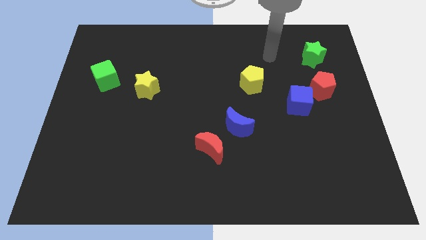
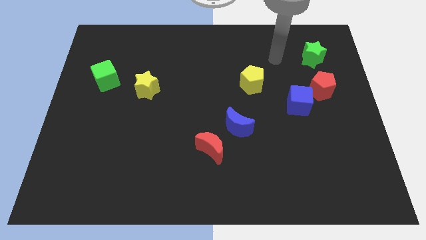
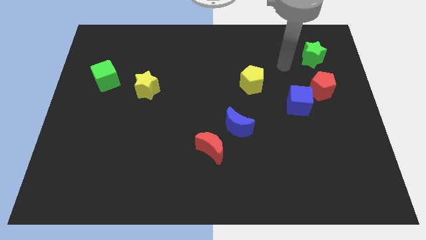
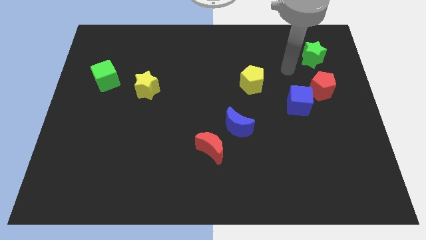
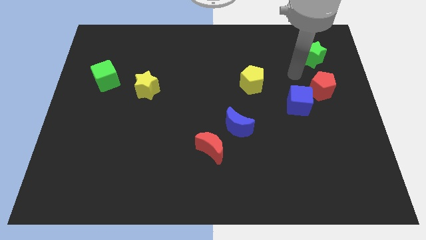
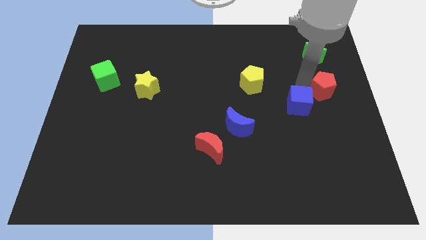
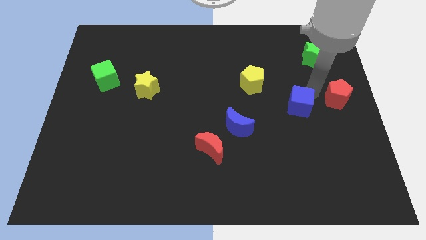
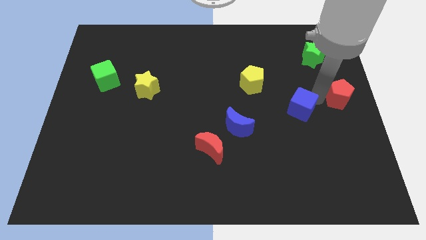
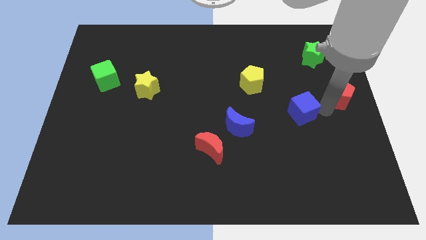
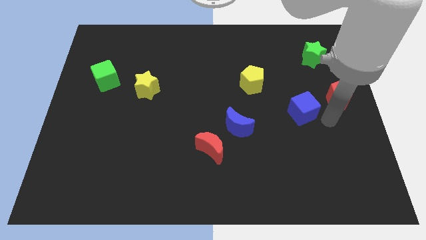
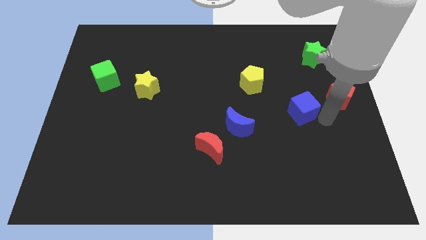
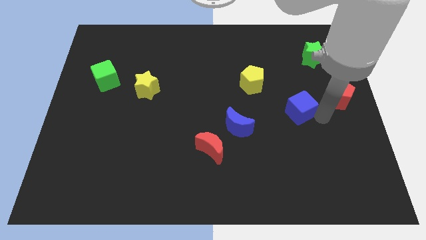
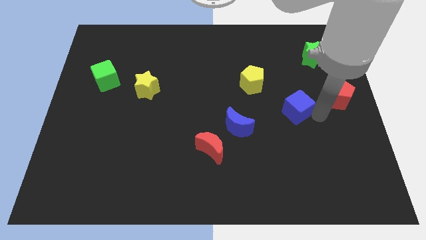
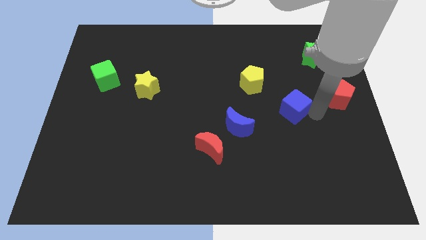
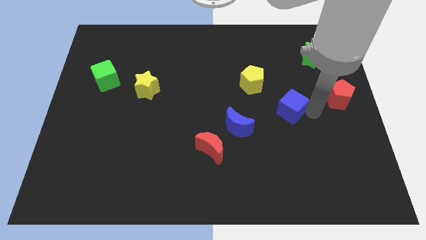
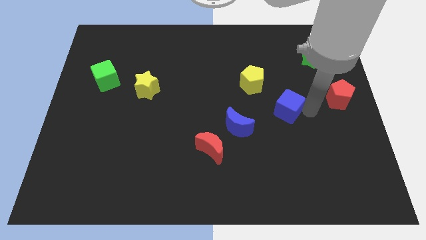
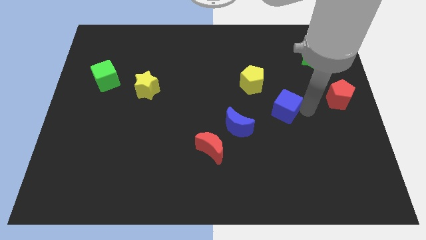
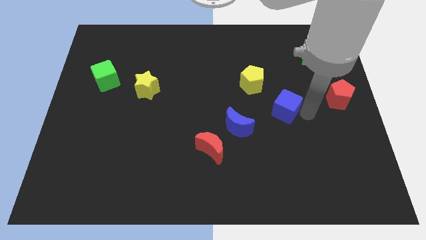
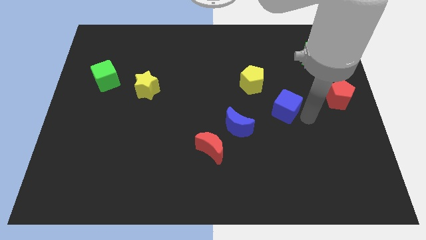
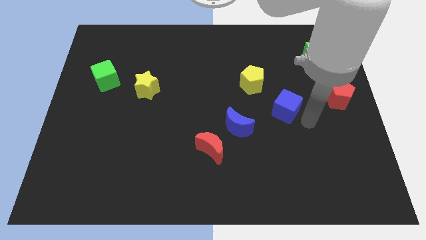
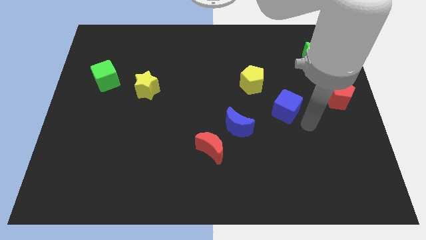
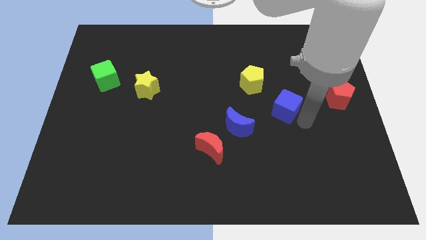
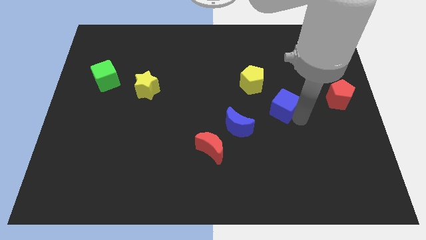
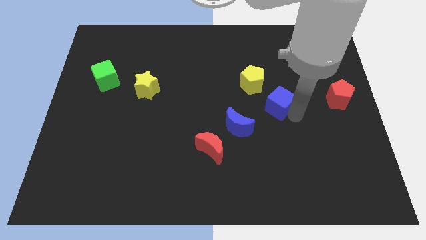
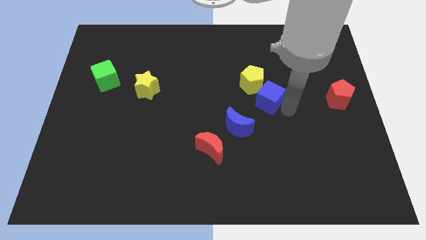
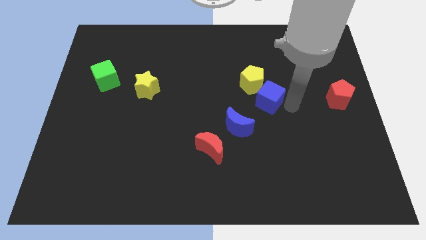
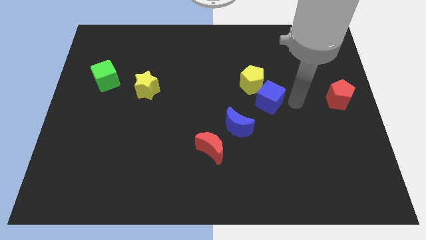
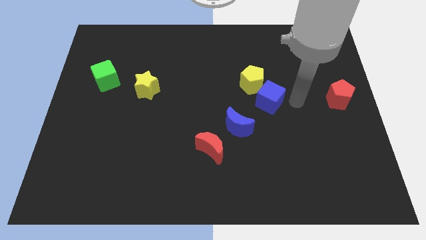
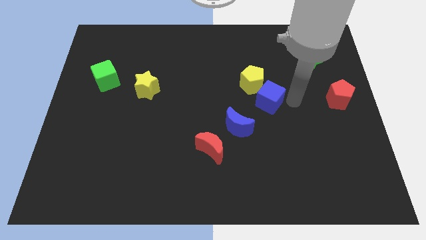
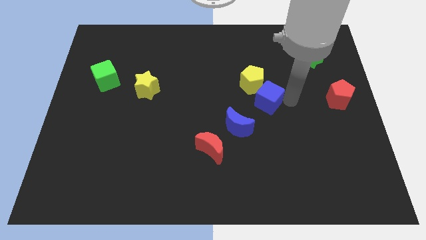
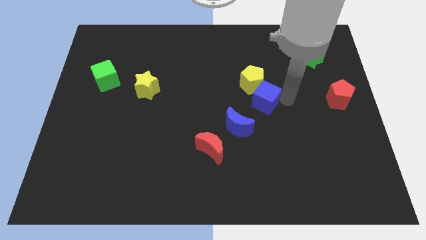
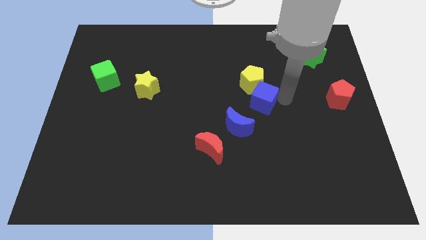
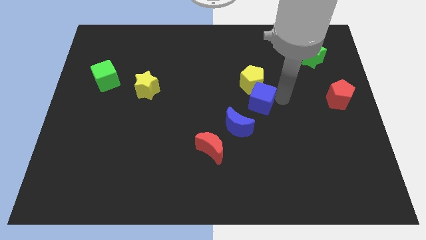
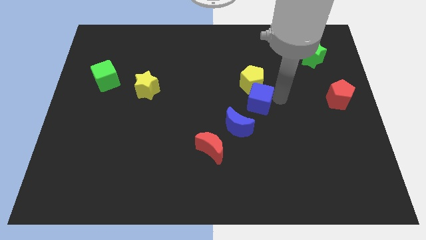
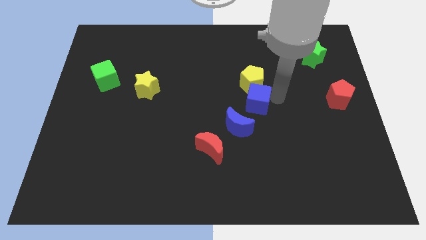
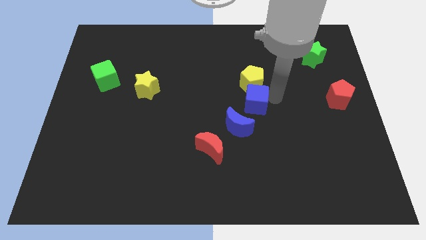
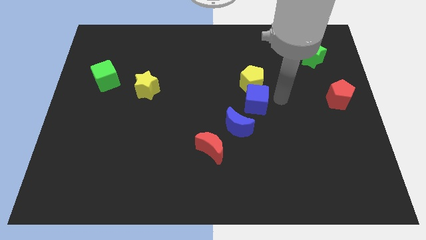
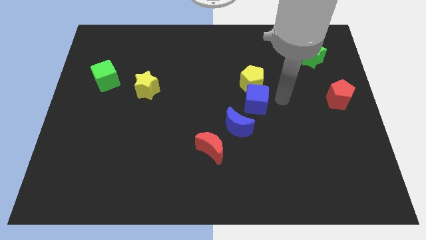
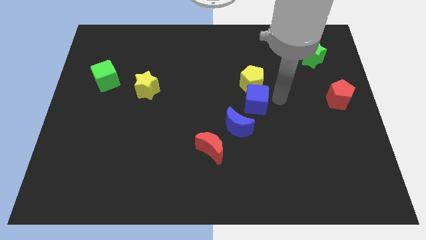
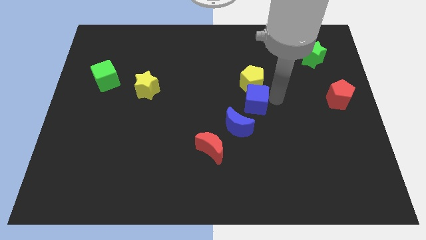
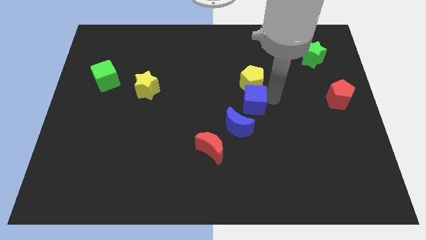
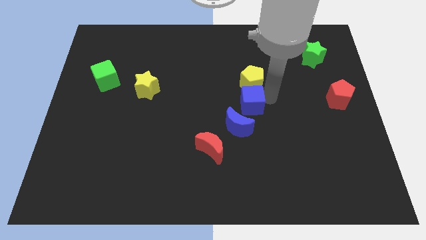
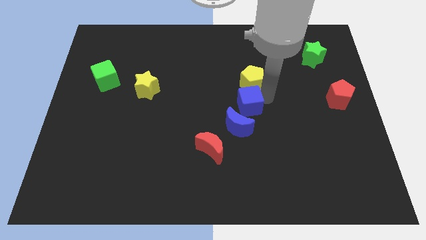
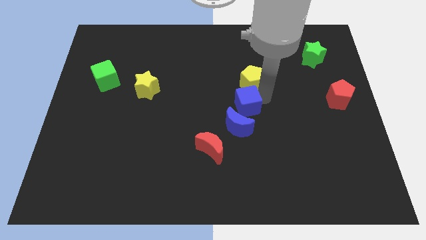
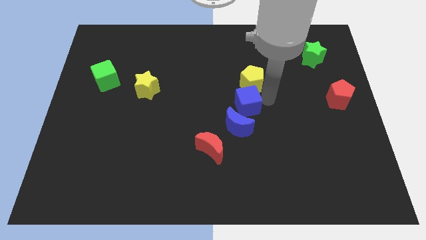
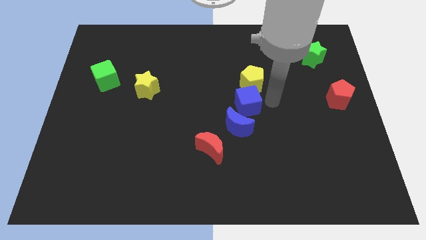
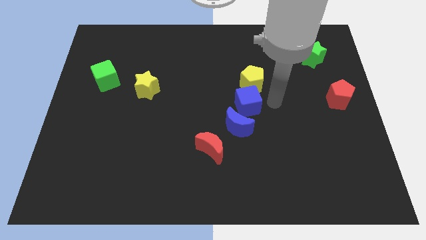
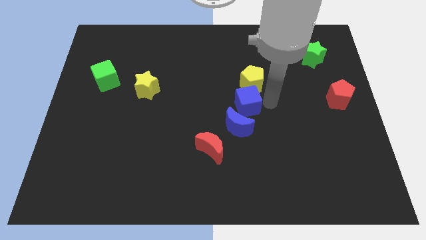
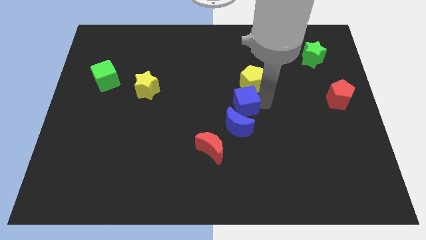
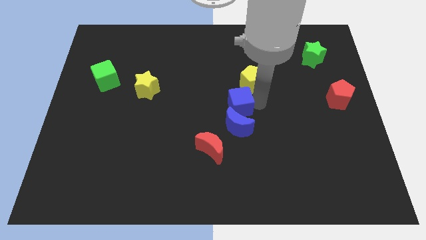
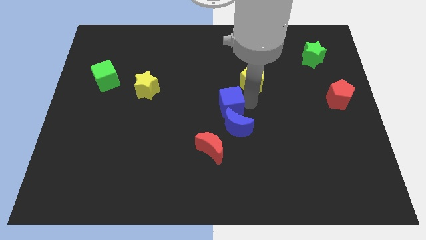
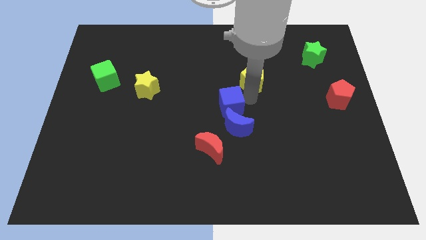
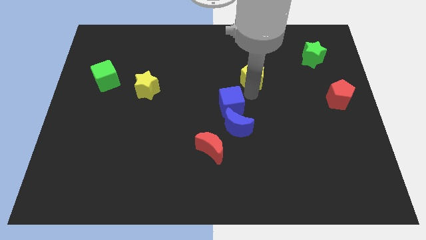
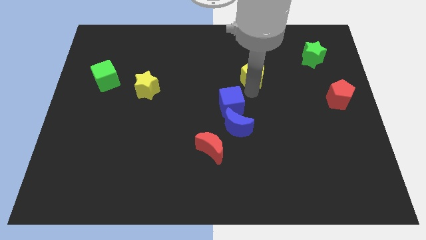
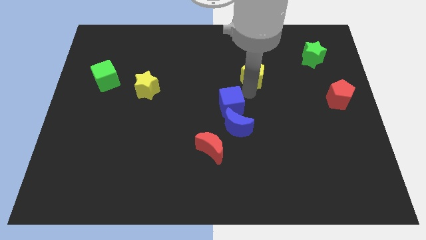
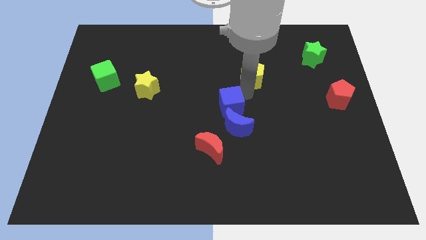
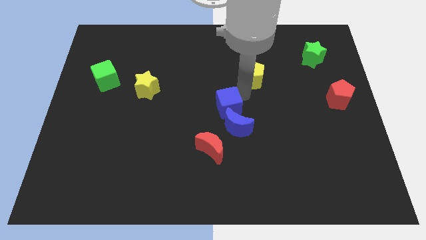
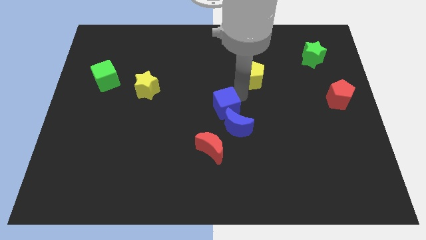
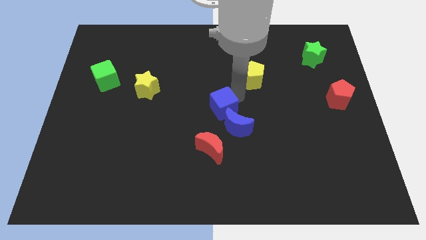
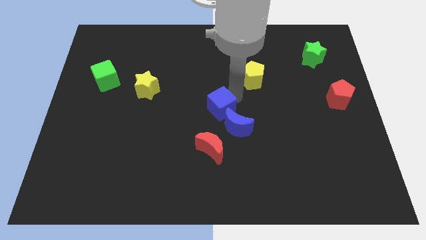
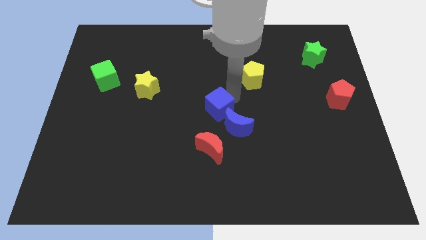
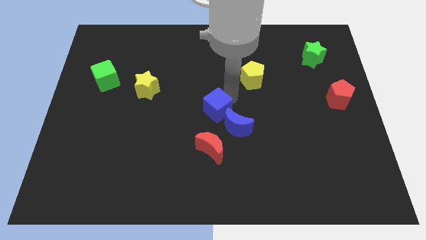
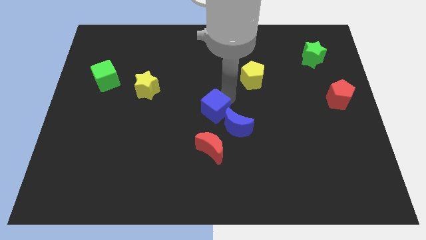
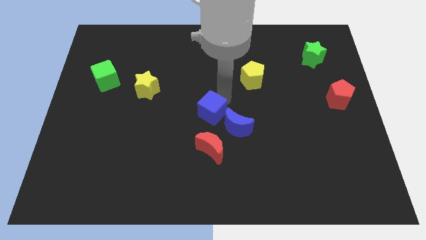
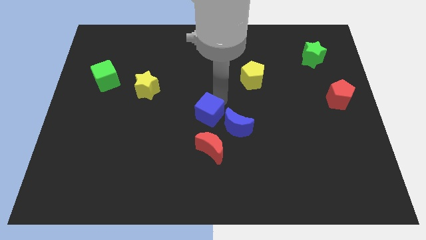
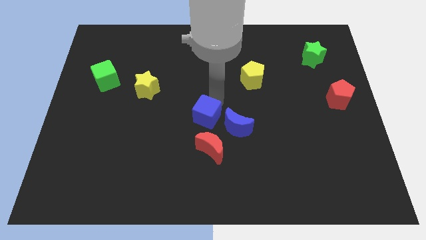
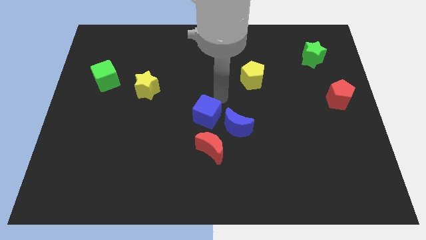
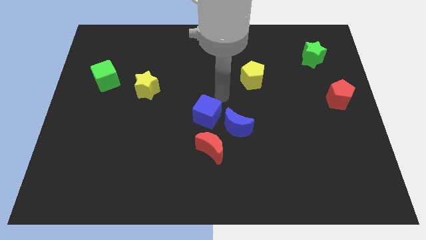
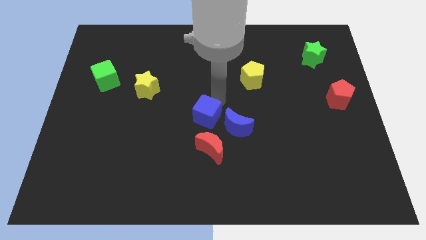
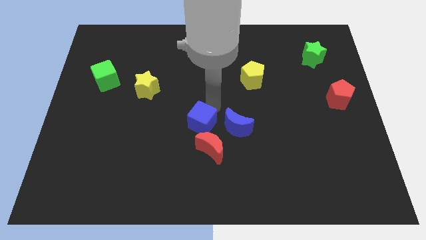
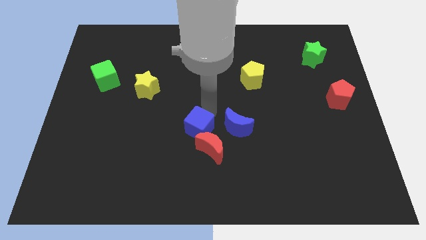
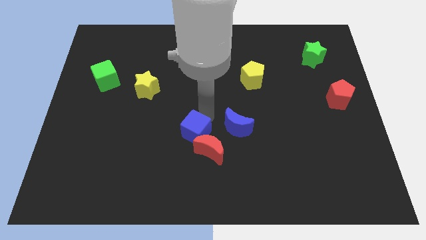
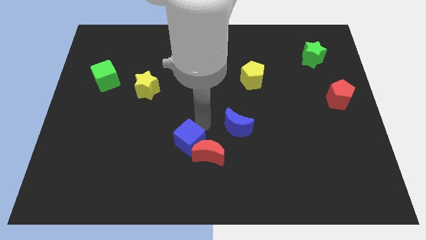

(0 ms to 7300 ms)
slide the blue cube to the left of the red moon
